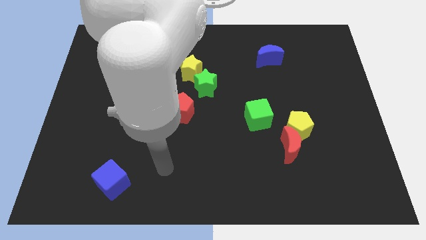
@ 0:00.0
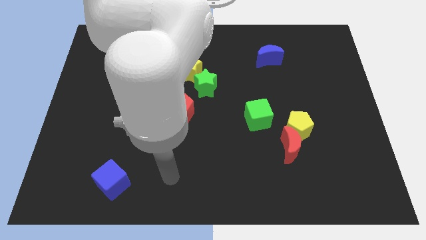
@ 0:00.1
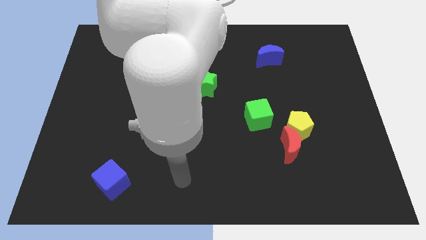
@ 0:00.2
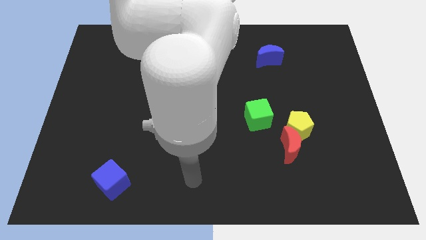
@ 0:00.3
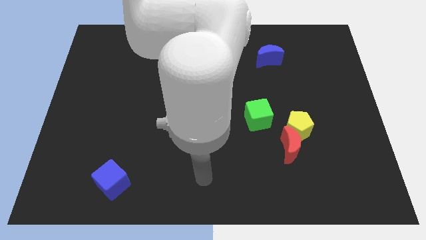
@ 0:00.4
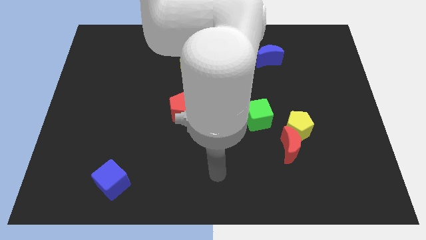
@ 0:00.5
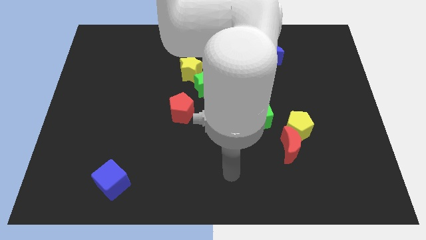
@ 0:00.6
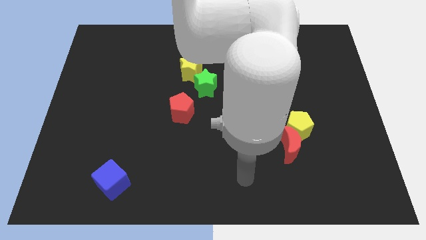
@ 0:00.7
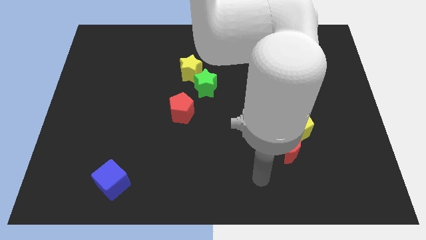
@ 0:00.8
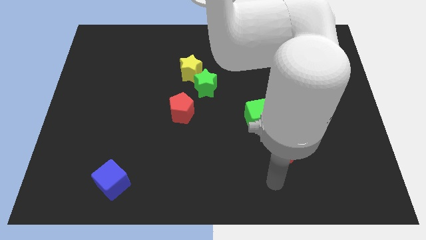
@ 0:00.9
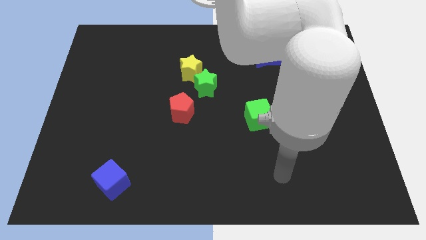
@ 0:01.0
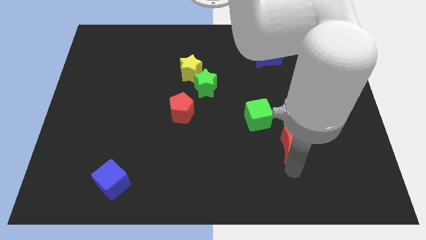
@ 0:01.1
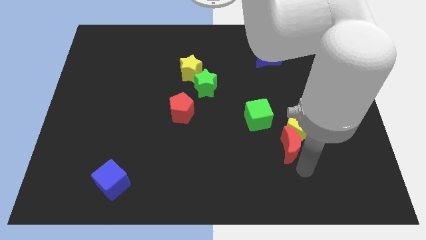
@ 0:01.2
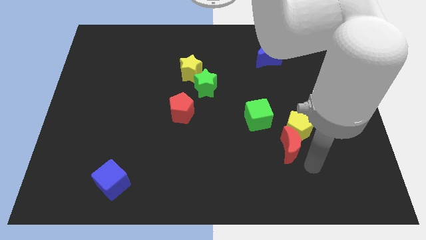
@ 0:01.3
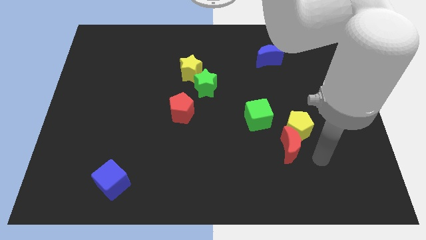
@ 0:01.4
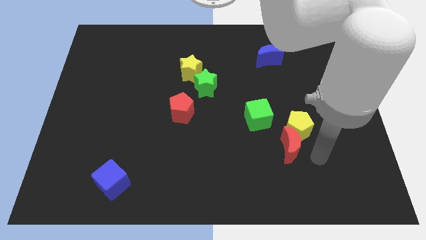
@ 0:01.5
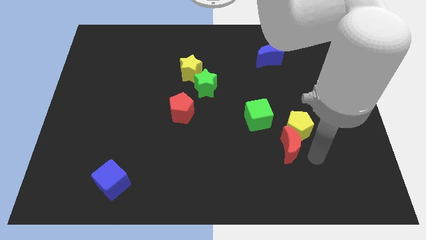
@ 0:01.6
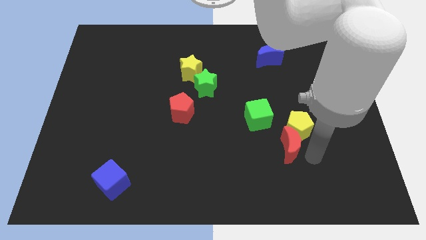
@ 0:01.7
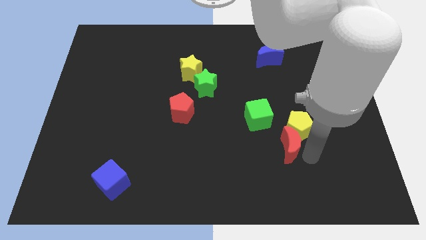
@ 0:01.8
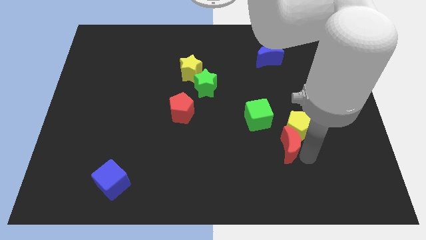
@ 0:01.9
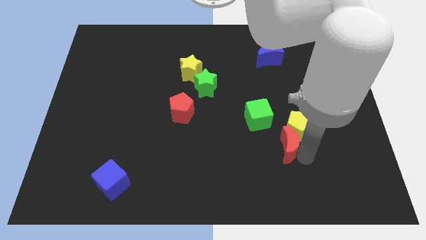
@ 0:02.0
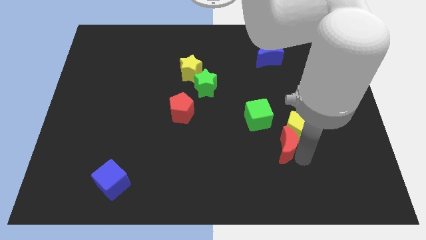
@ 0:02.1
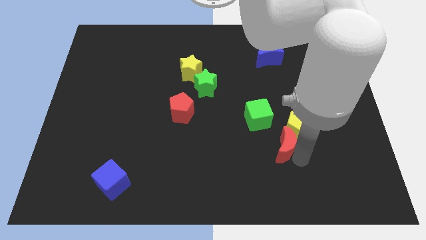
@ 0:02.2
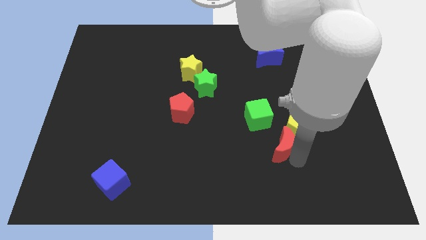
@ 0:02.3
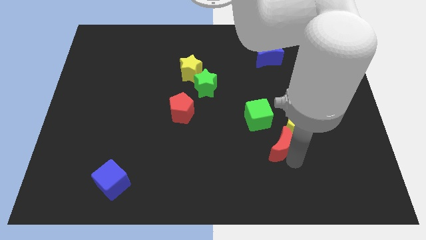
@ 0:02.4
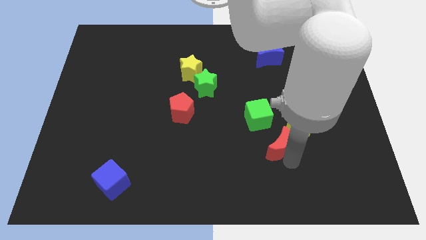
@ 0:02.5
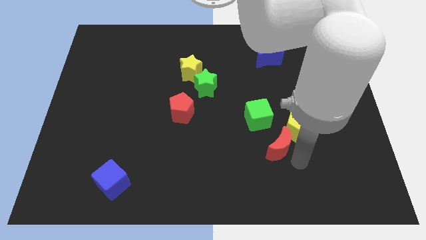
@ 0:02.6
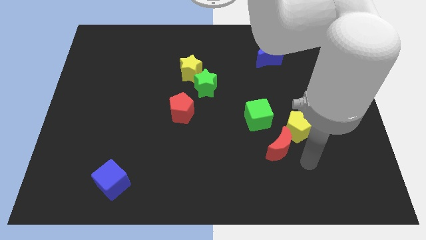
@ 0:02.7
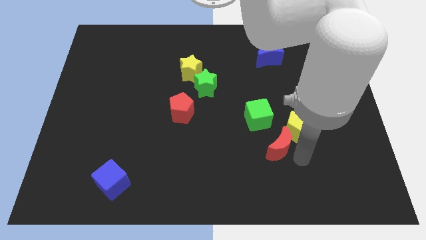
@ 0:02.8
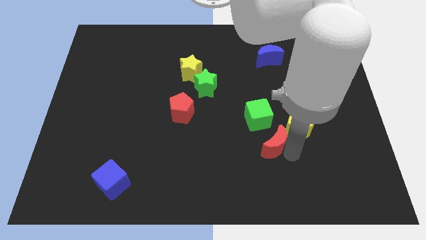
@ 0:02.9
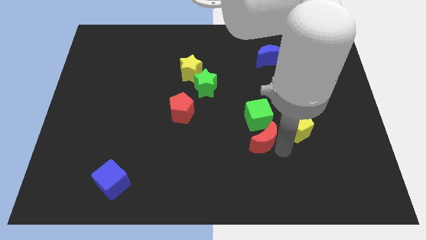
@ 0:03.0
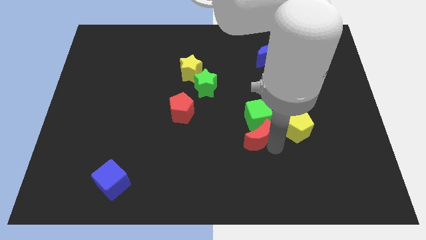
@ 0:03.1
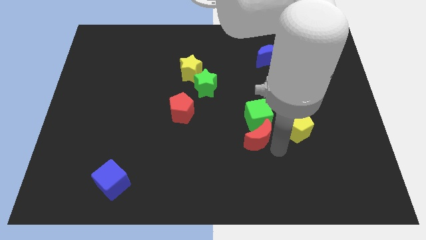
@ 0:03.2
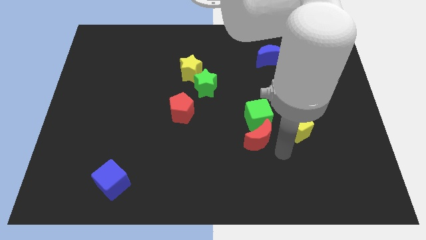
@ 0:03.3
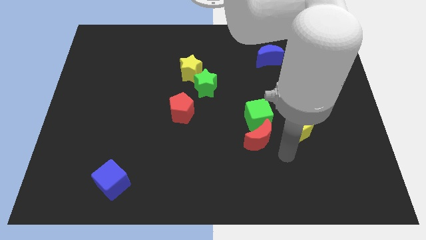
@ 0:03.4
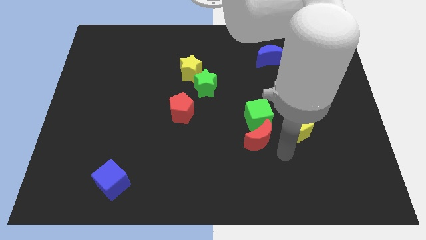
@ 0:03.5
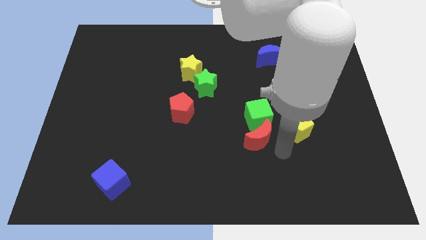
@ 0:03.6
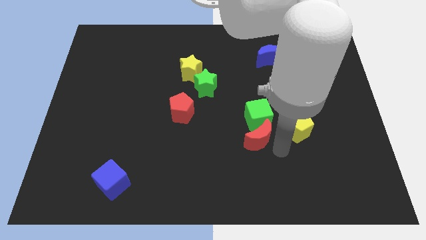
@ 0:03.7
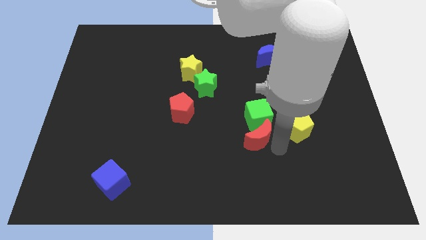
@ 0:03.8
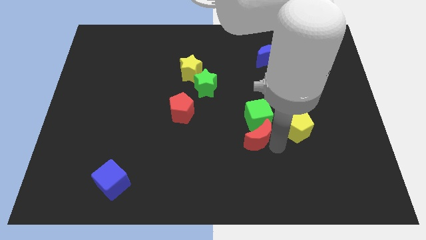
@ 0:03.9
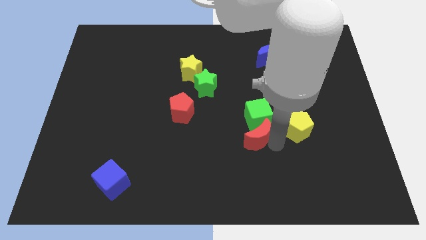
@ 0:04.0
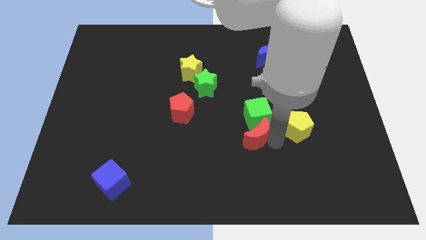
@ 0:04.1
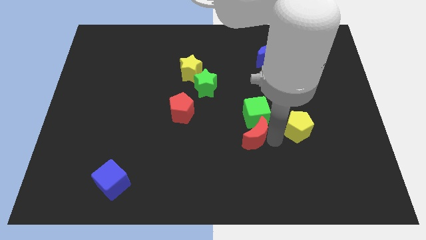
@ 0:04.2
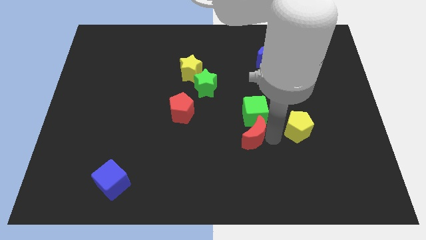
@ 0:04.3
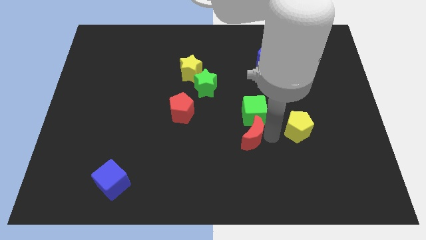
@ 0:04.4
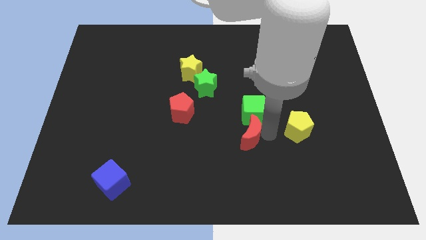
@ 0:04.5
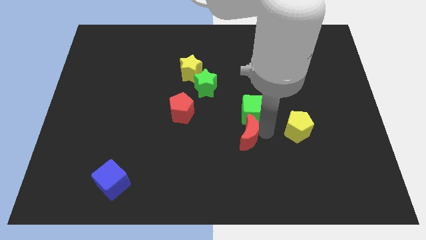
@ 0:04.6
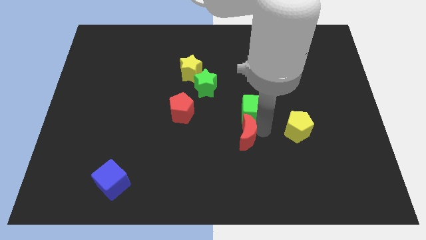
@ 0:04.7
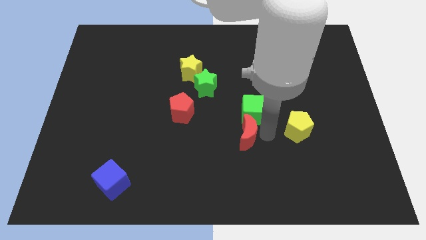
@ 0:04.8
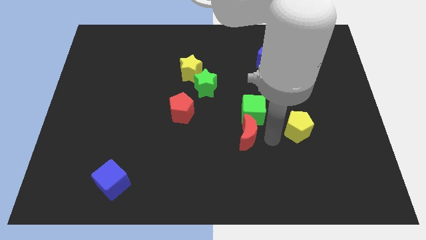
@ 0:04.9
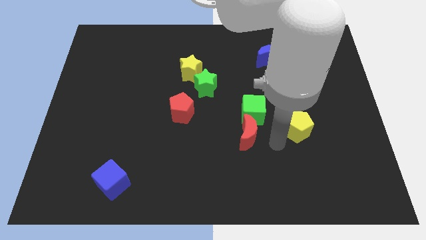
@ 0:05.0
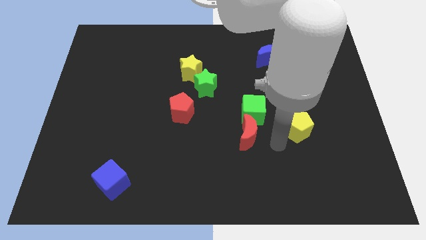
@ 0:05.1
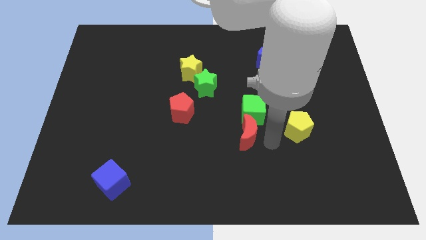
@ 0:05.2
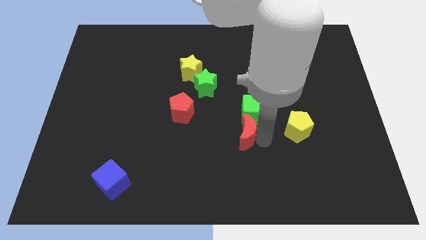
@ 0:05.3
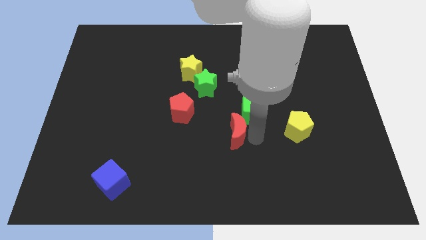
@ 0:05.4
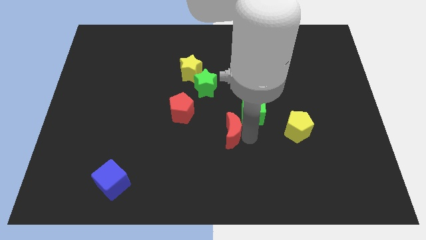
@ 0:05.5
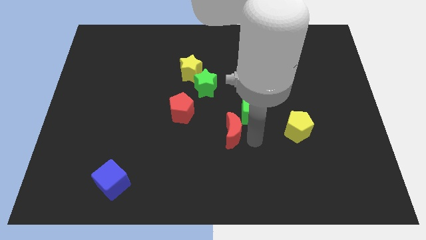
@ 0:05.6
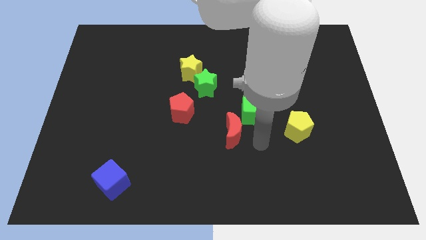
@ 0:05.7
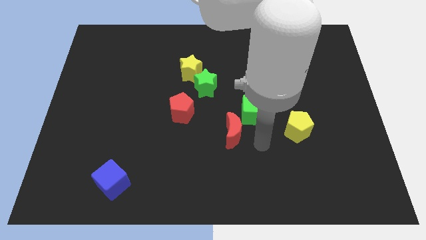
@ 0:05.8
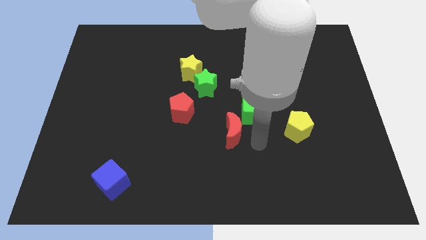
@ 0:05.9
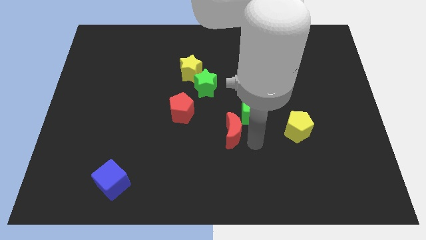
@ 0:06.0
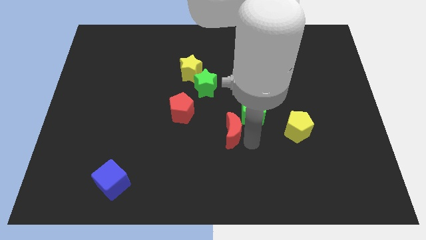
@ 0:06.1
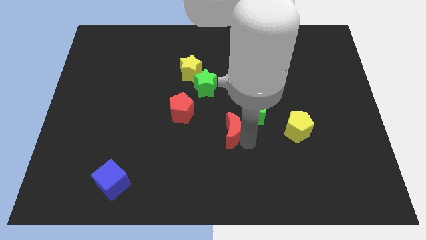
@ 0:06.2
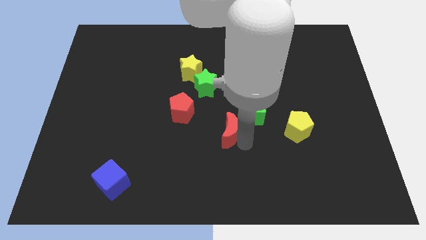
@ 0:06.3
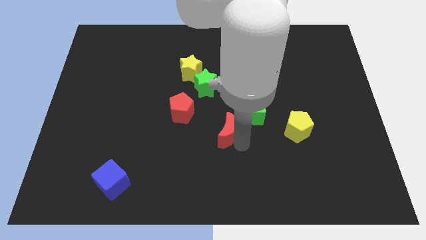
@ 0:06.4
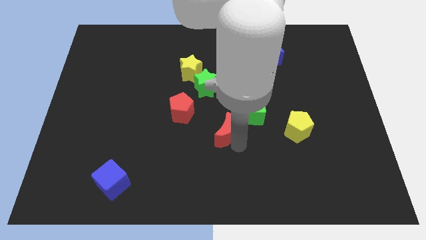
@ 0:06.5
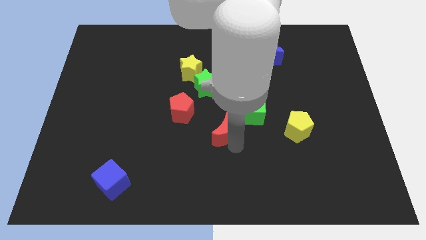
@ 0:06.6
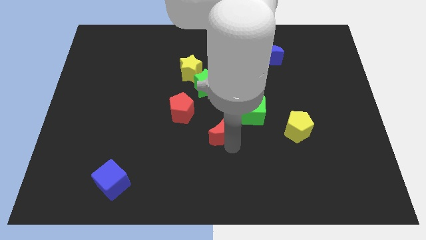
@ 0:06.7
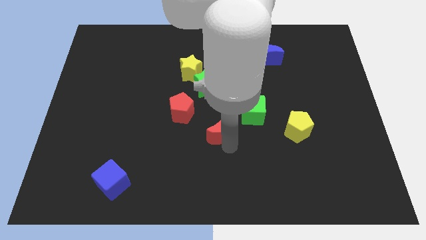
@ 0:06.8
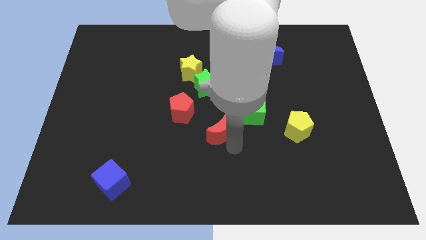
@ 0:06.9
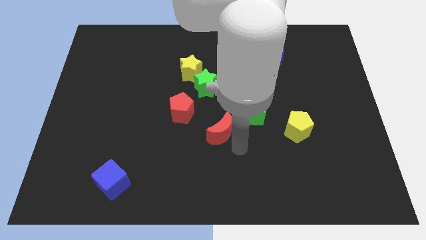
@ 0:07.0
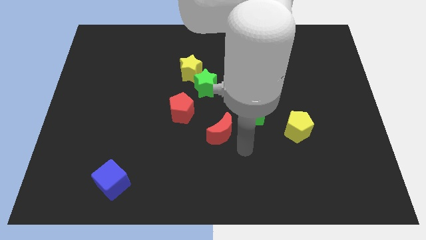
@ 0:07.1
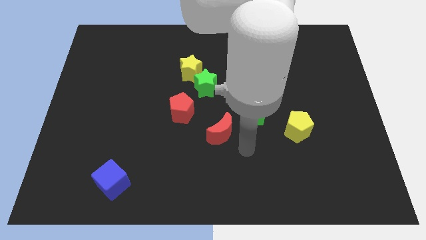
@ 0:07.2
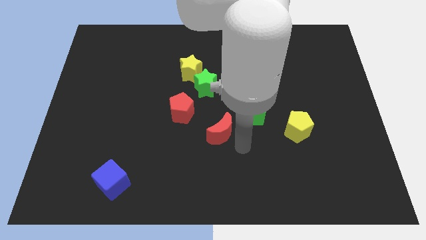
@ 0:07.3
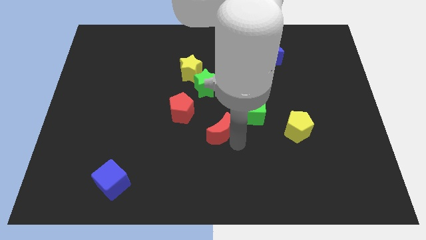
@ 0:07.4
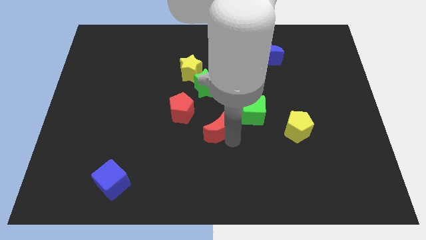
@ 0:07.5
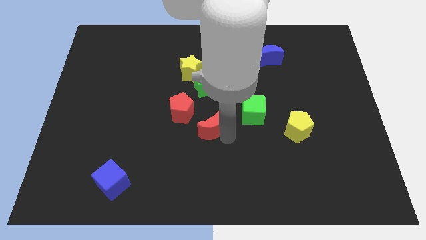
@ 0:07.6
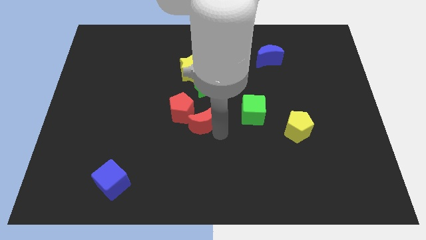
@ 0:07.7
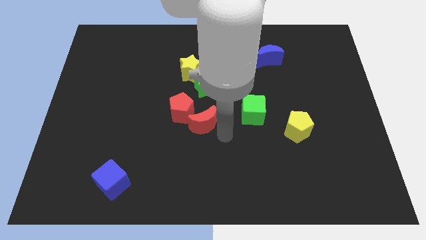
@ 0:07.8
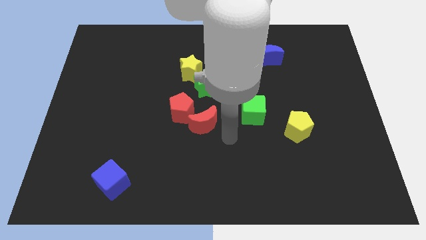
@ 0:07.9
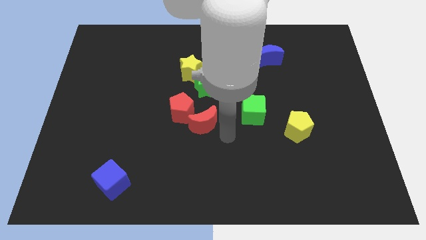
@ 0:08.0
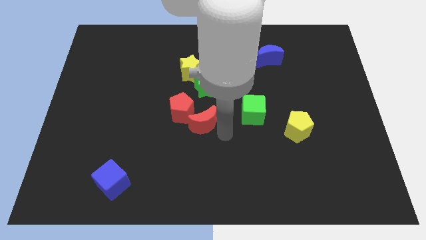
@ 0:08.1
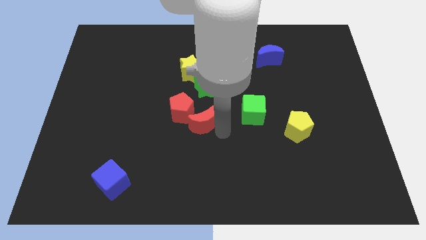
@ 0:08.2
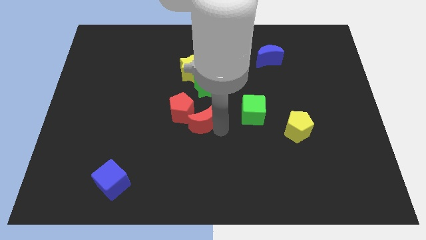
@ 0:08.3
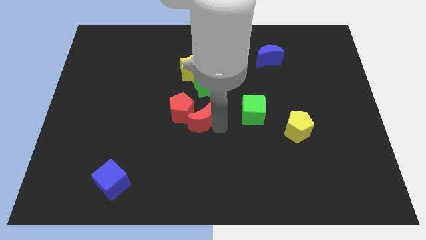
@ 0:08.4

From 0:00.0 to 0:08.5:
push the red moon next to the red pentagon
